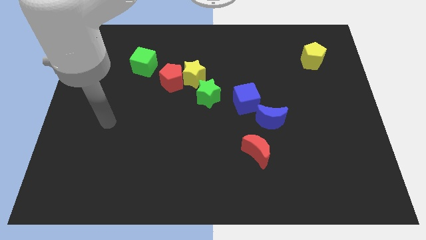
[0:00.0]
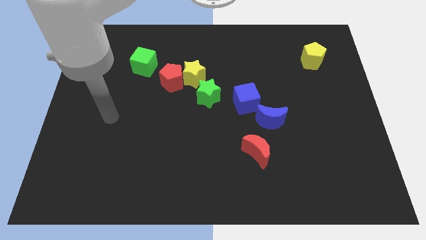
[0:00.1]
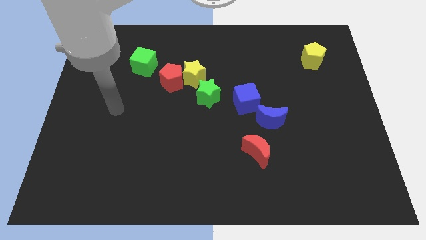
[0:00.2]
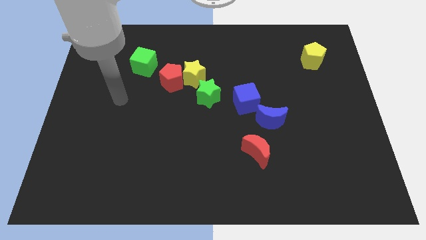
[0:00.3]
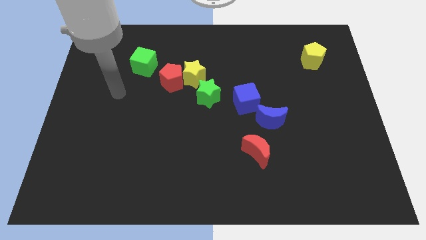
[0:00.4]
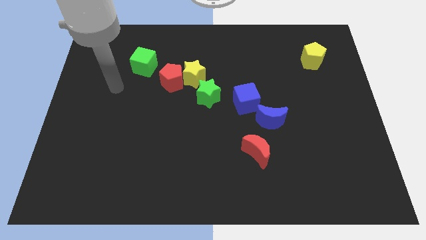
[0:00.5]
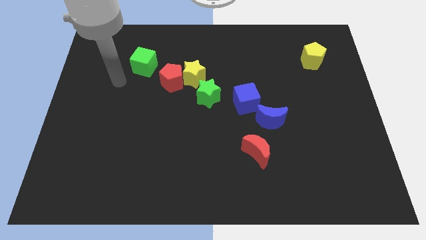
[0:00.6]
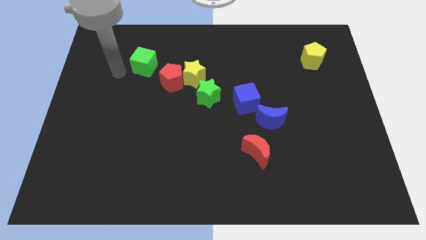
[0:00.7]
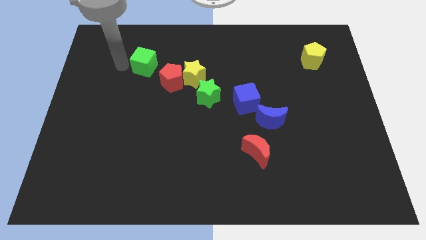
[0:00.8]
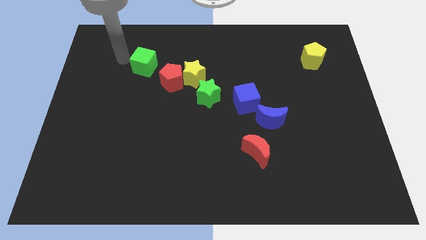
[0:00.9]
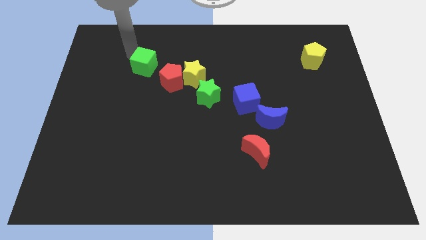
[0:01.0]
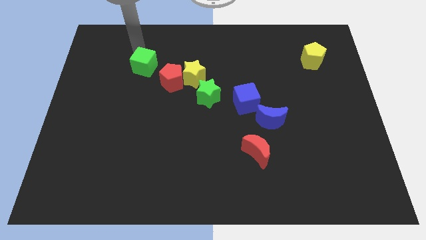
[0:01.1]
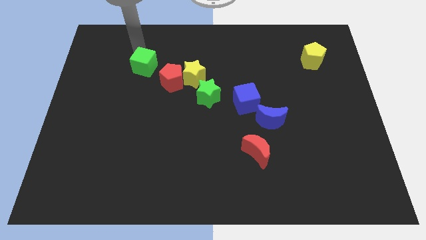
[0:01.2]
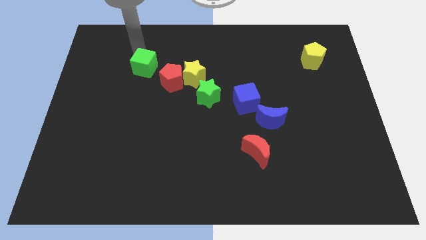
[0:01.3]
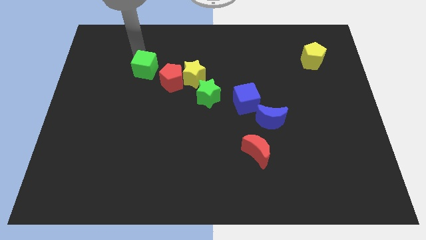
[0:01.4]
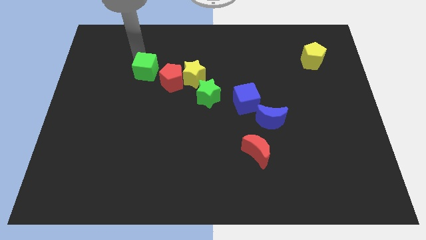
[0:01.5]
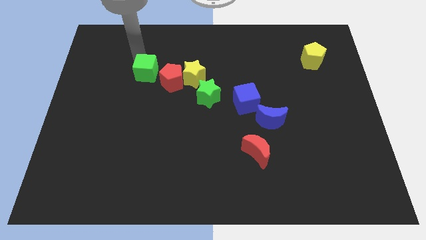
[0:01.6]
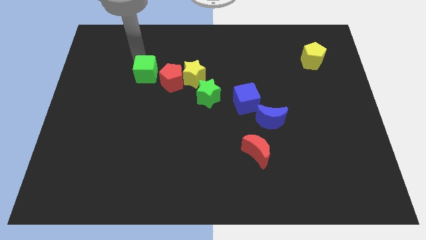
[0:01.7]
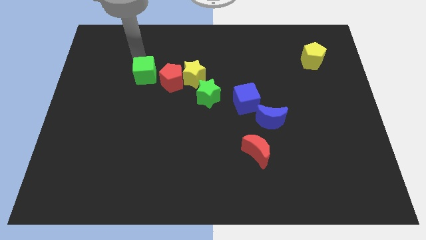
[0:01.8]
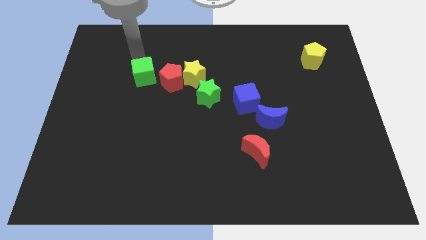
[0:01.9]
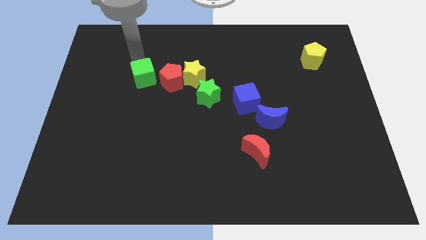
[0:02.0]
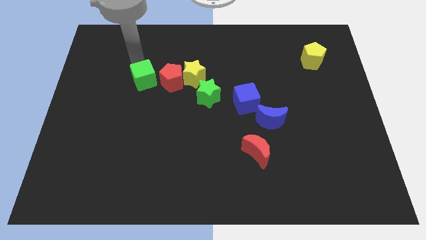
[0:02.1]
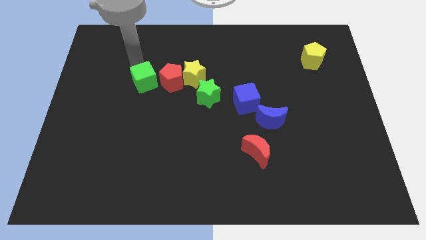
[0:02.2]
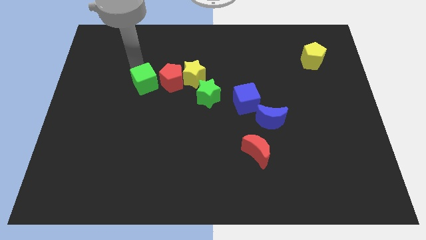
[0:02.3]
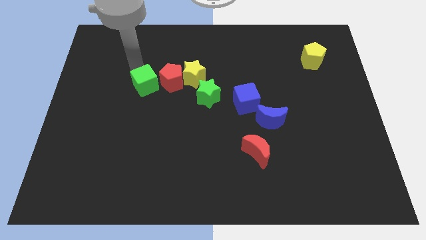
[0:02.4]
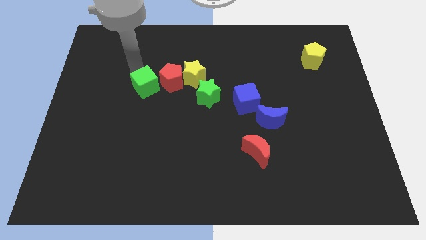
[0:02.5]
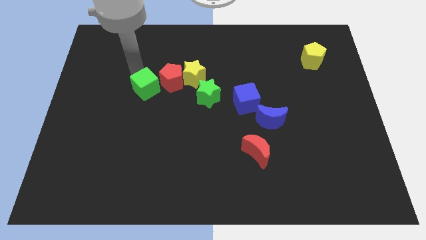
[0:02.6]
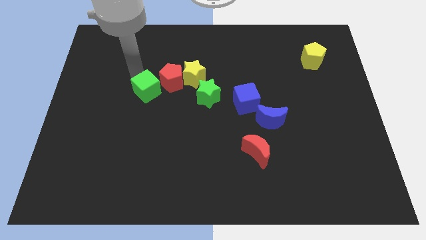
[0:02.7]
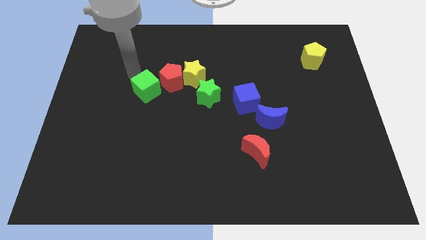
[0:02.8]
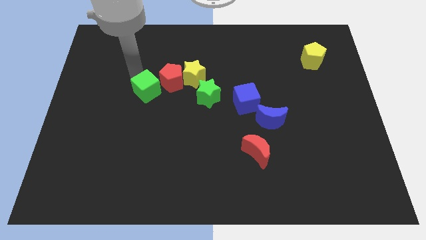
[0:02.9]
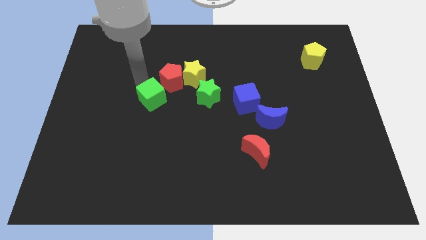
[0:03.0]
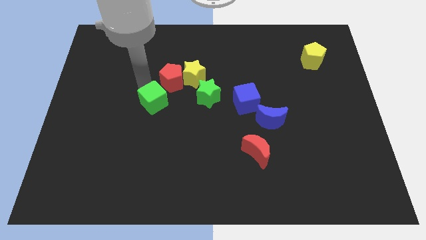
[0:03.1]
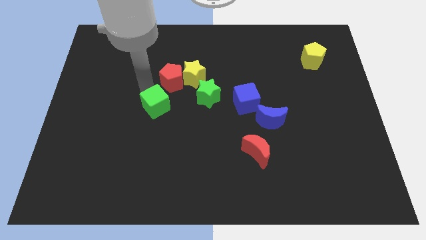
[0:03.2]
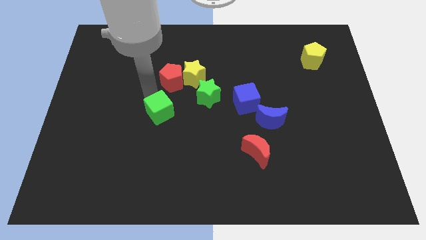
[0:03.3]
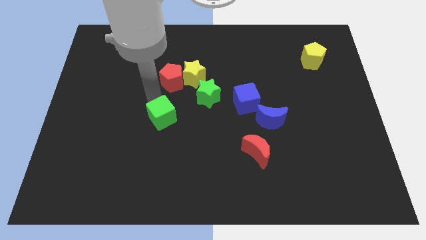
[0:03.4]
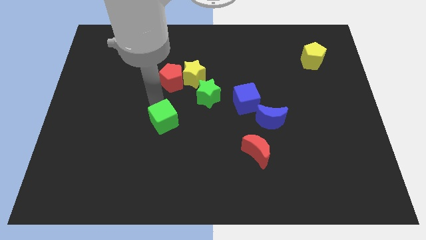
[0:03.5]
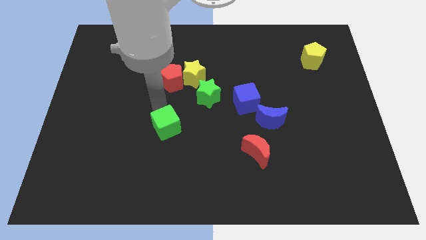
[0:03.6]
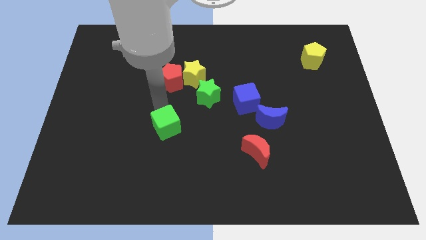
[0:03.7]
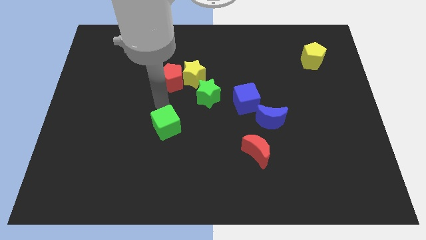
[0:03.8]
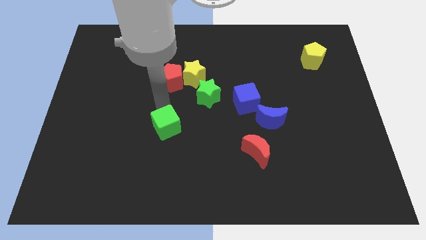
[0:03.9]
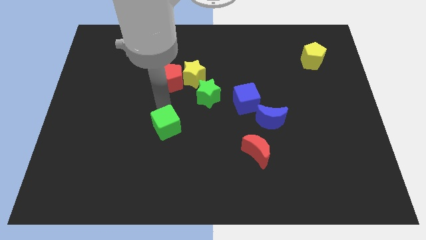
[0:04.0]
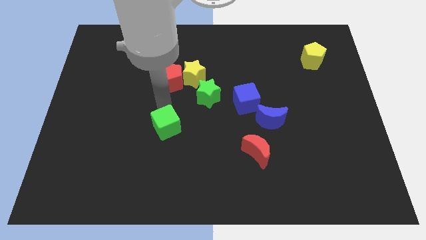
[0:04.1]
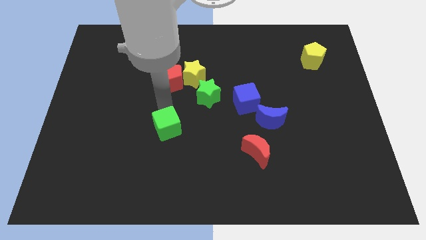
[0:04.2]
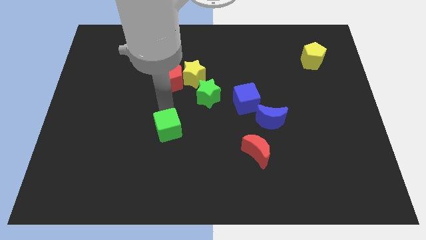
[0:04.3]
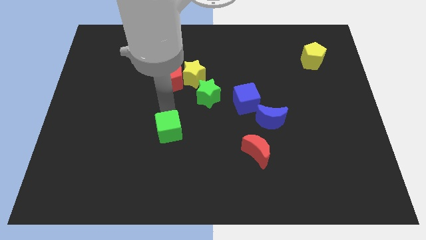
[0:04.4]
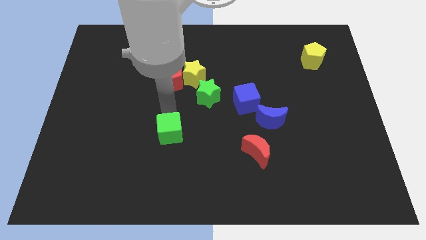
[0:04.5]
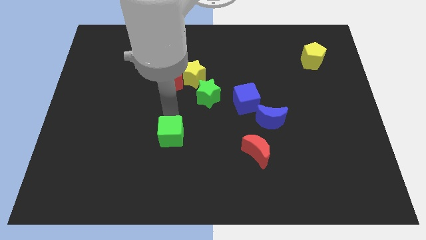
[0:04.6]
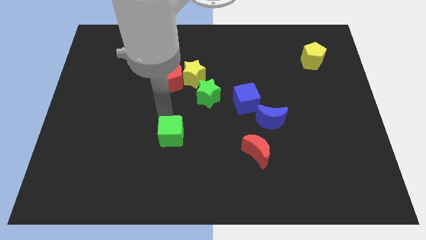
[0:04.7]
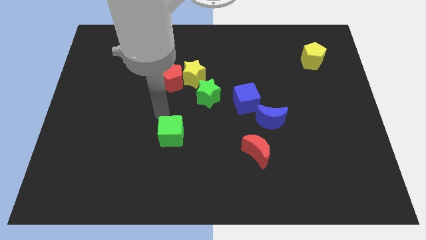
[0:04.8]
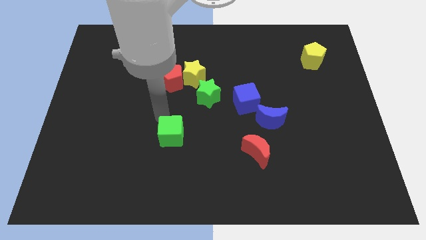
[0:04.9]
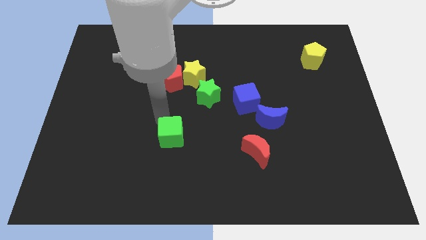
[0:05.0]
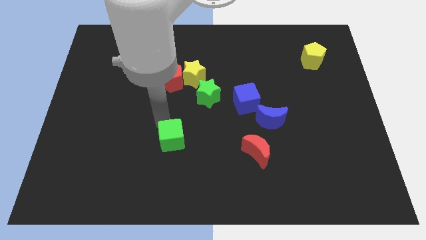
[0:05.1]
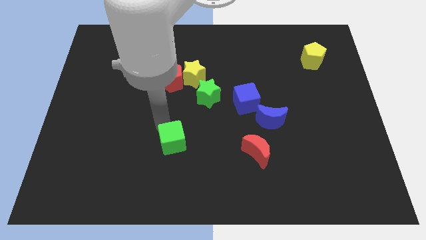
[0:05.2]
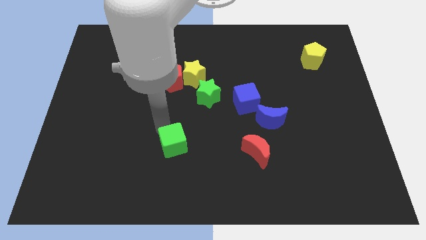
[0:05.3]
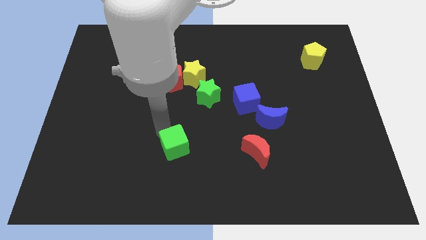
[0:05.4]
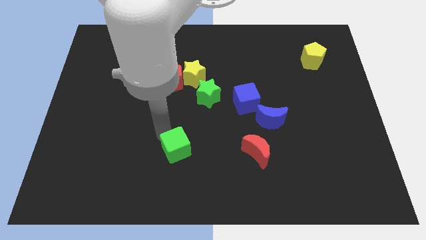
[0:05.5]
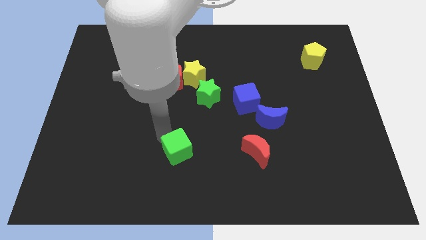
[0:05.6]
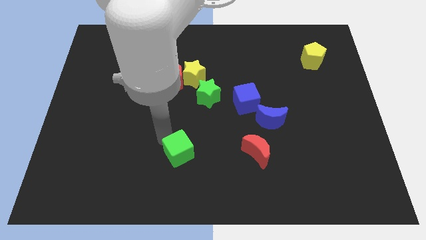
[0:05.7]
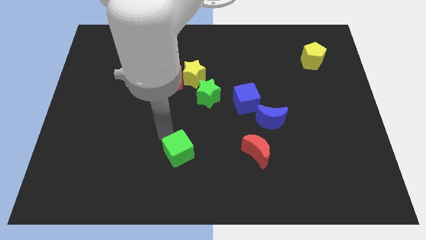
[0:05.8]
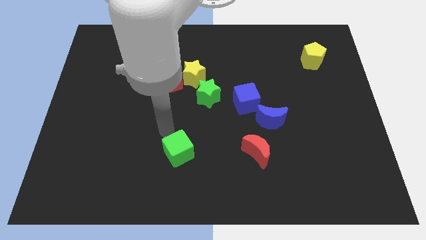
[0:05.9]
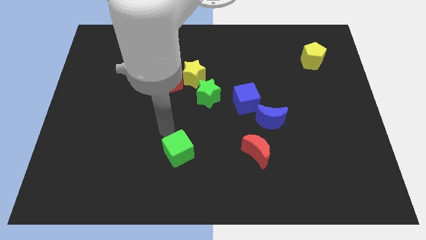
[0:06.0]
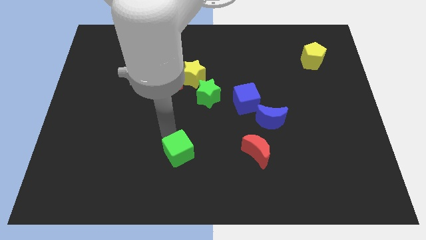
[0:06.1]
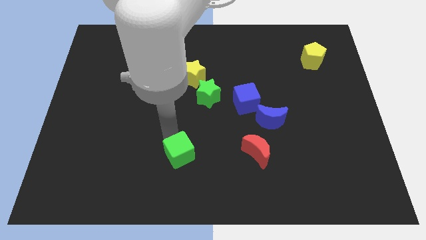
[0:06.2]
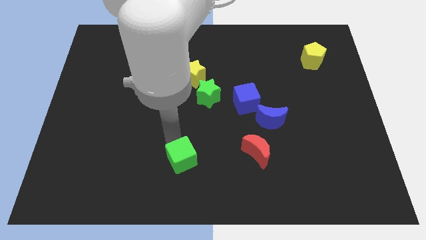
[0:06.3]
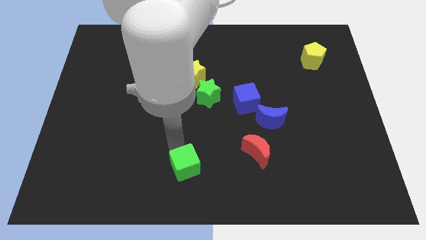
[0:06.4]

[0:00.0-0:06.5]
move the green cube to the bottom
